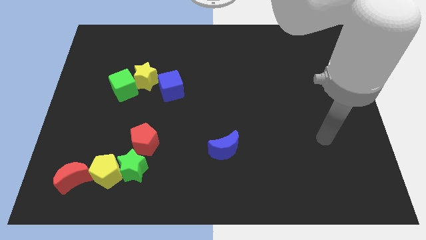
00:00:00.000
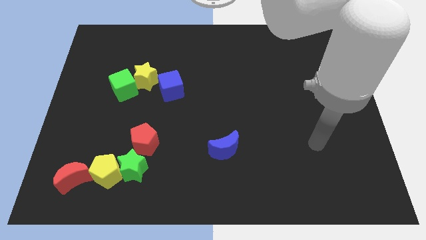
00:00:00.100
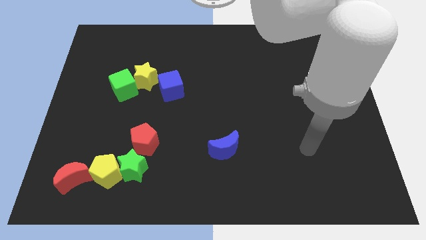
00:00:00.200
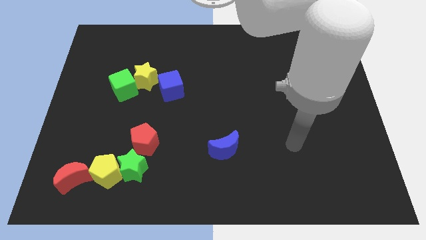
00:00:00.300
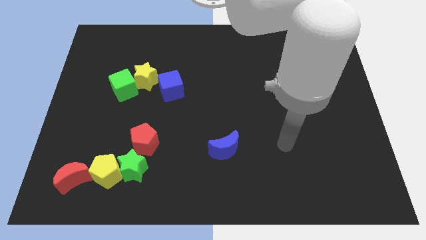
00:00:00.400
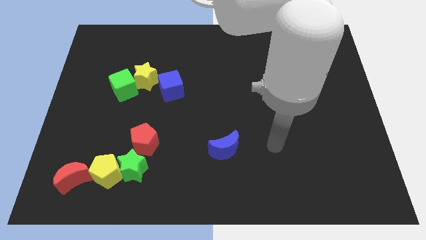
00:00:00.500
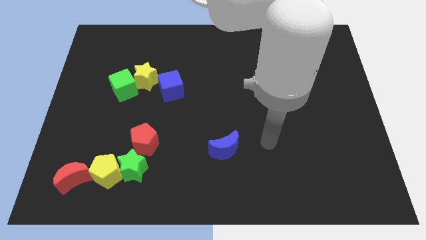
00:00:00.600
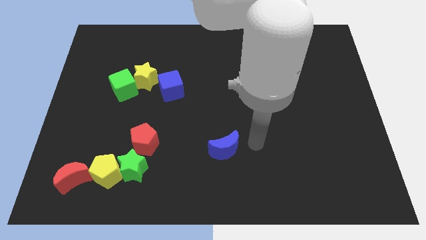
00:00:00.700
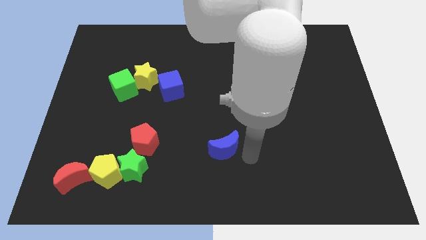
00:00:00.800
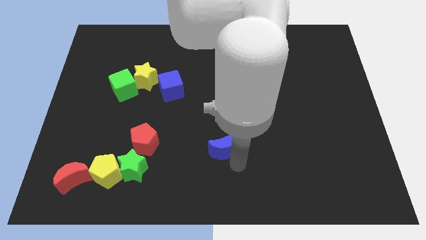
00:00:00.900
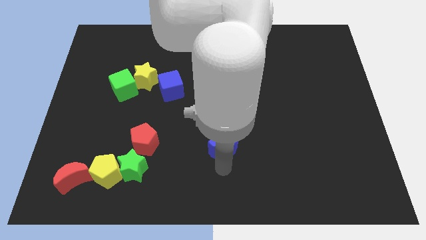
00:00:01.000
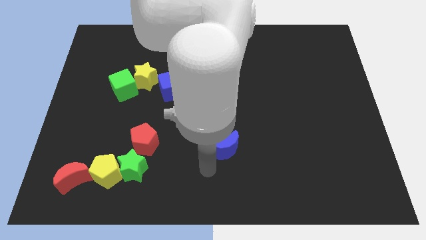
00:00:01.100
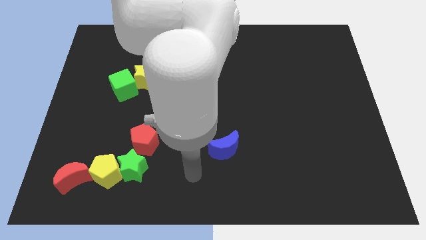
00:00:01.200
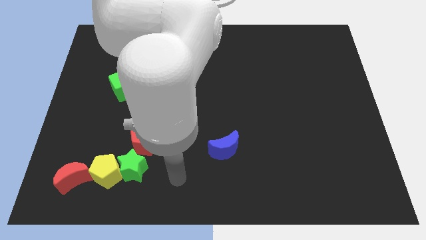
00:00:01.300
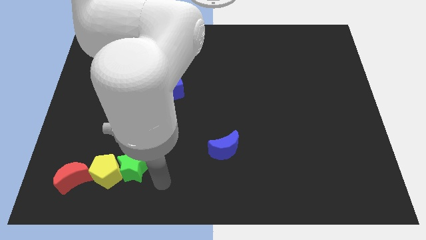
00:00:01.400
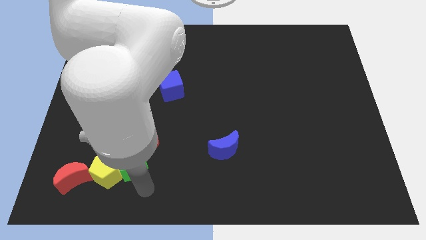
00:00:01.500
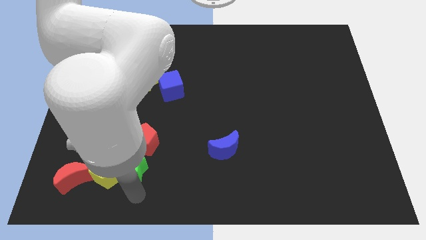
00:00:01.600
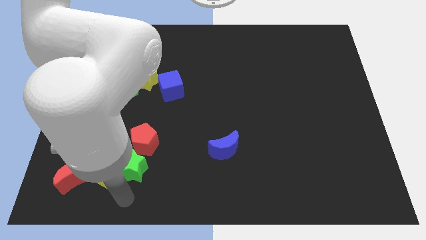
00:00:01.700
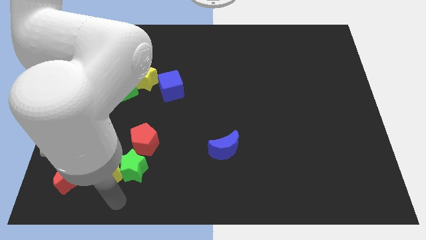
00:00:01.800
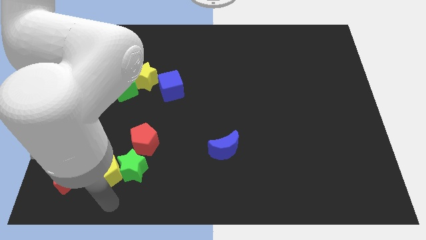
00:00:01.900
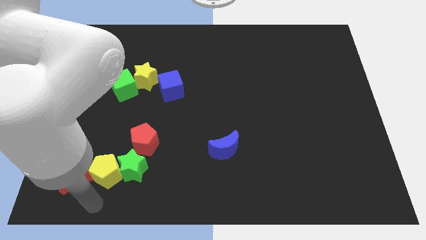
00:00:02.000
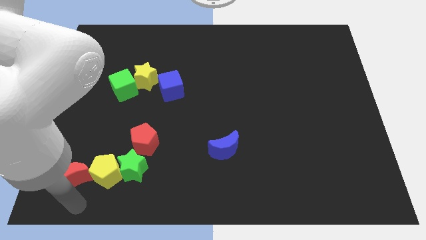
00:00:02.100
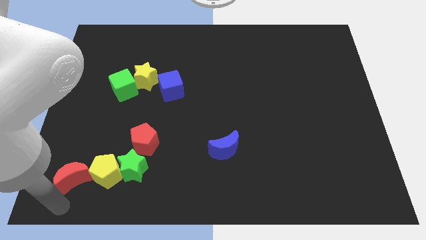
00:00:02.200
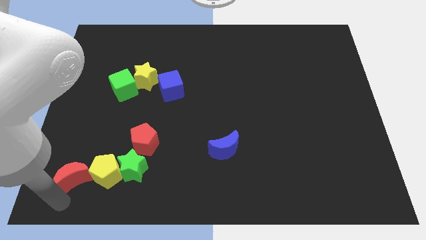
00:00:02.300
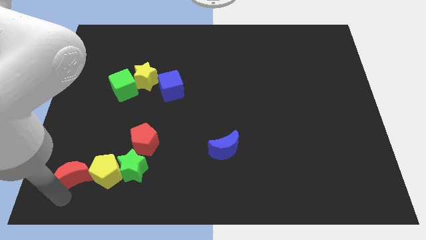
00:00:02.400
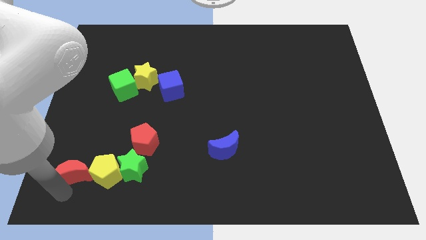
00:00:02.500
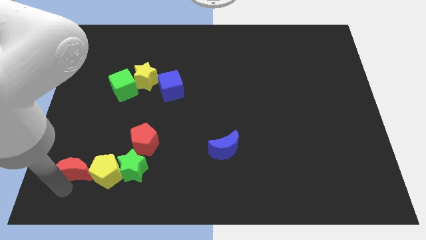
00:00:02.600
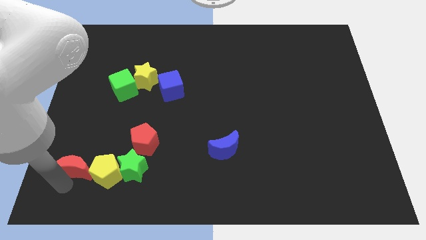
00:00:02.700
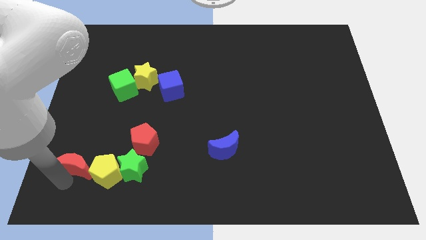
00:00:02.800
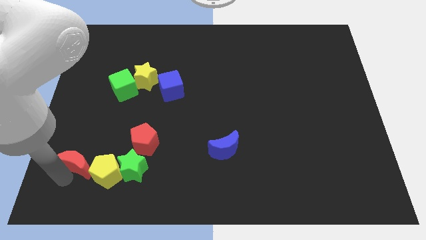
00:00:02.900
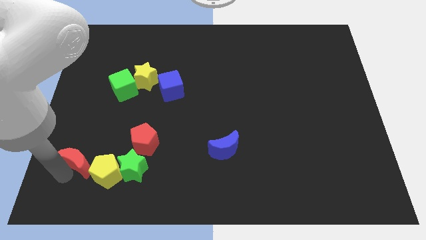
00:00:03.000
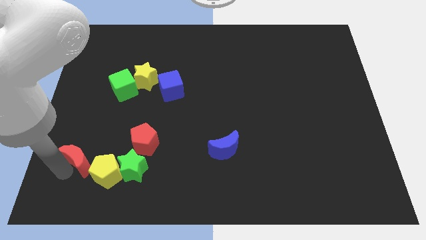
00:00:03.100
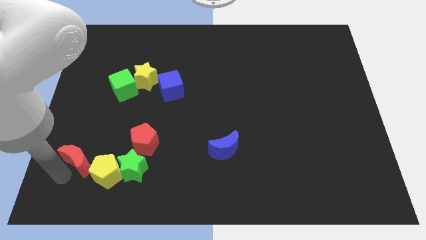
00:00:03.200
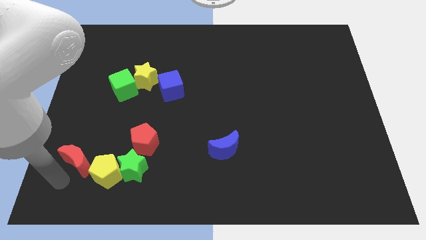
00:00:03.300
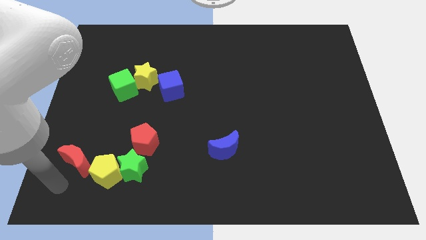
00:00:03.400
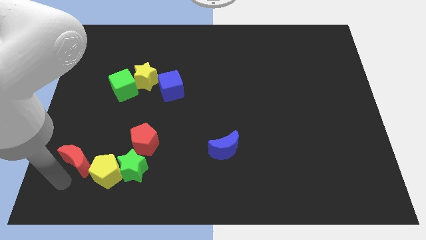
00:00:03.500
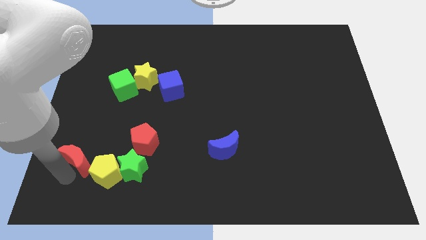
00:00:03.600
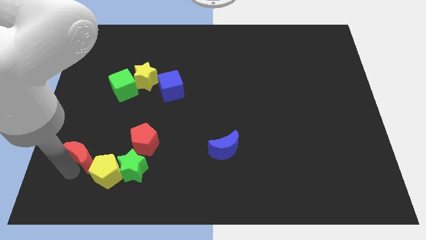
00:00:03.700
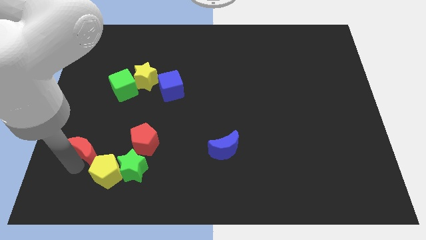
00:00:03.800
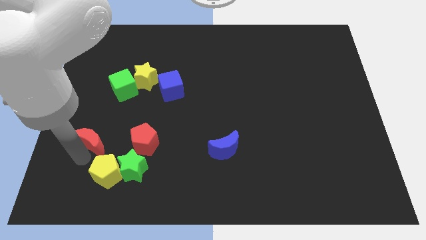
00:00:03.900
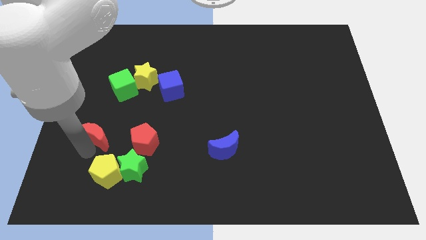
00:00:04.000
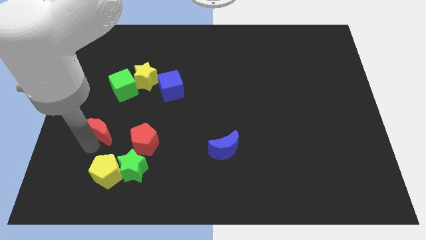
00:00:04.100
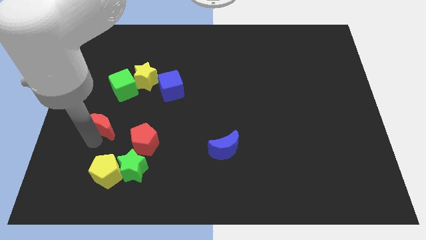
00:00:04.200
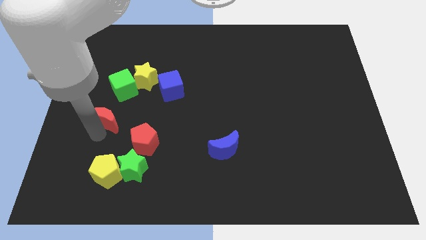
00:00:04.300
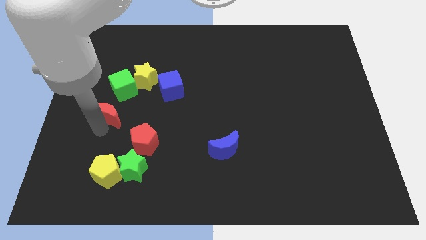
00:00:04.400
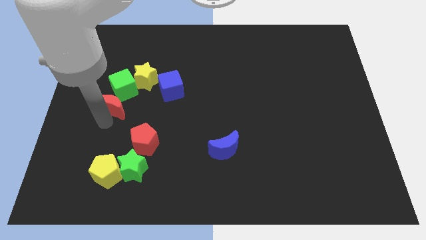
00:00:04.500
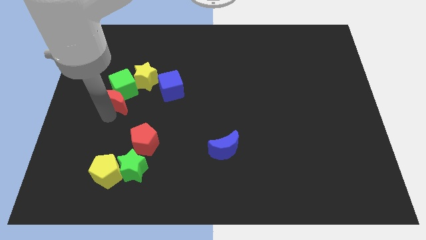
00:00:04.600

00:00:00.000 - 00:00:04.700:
put the red moon next to the green cube

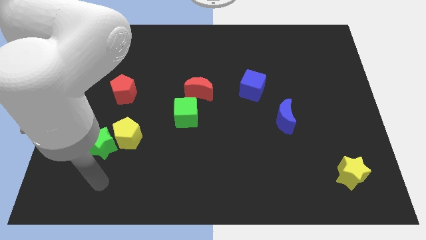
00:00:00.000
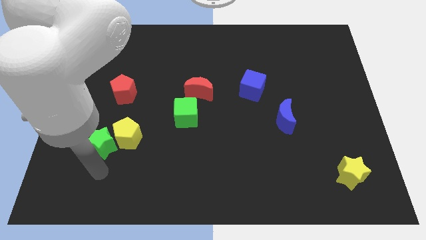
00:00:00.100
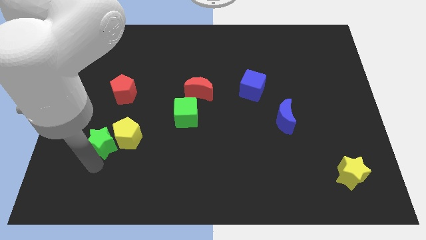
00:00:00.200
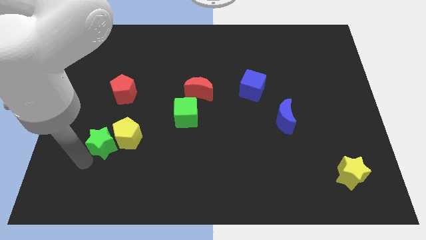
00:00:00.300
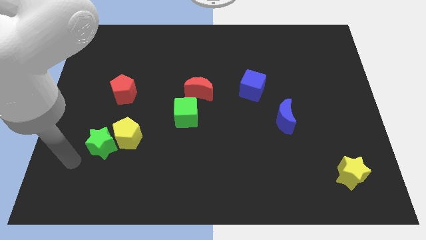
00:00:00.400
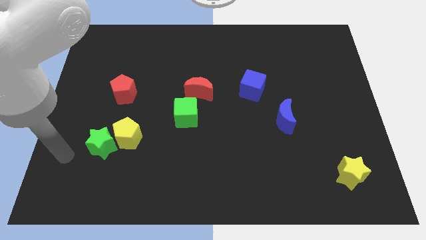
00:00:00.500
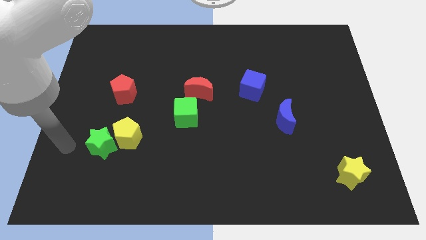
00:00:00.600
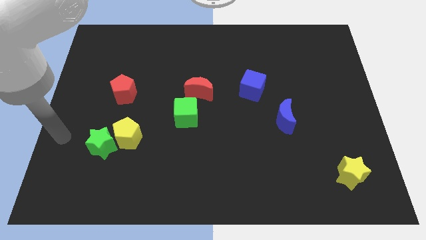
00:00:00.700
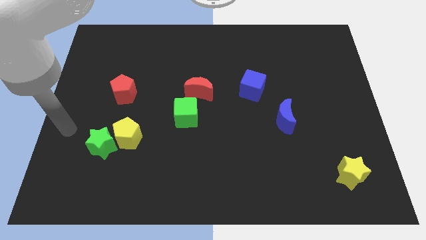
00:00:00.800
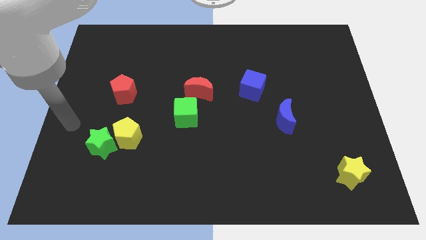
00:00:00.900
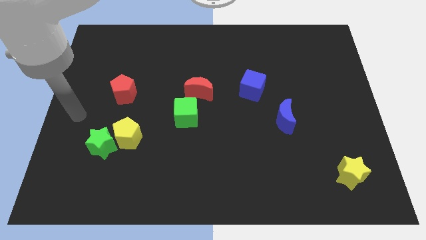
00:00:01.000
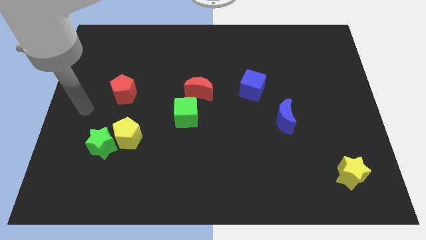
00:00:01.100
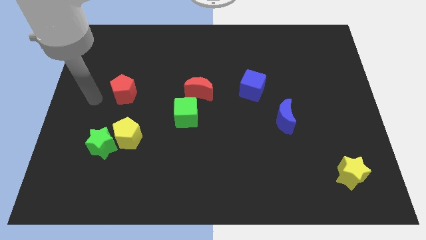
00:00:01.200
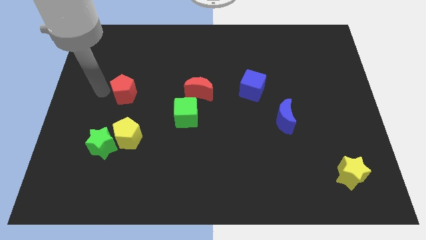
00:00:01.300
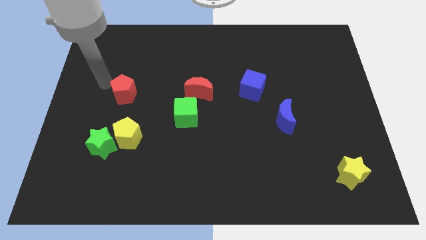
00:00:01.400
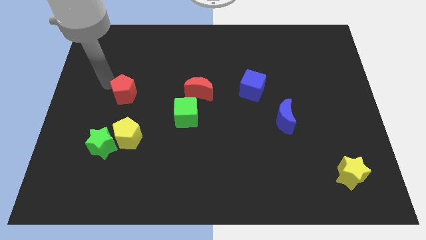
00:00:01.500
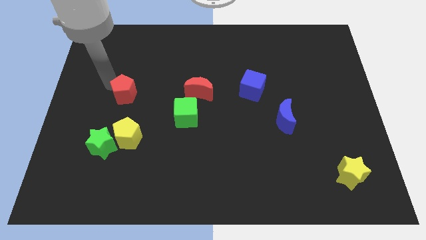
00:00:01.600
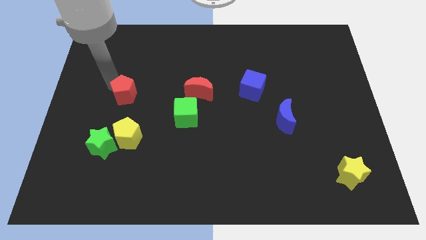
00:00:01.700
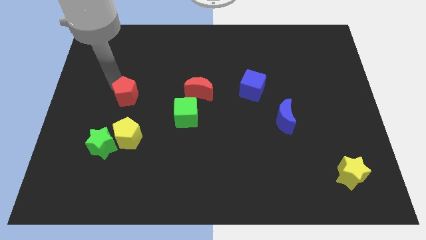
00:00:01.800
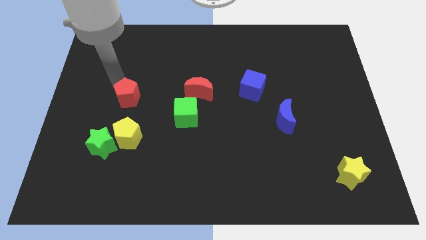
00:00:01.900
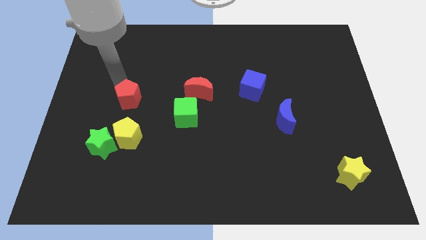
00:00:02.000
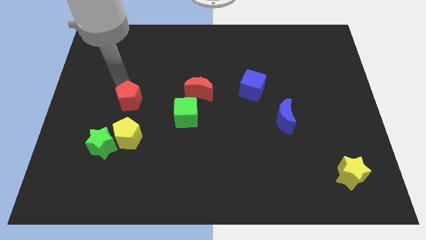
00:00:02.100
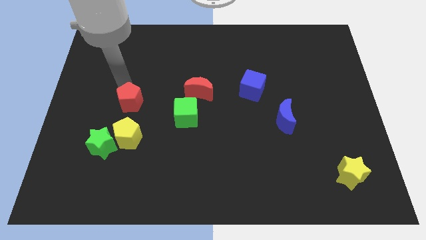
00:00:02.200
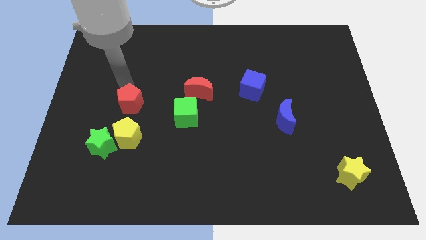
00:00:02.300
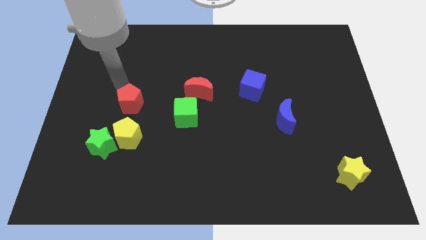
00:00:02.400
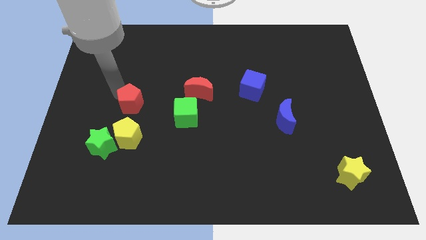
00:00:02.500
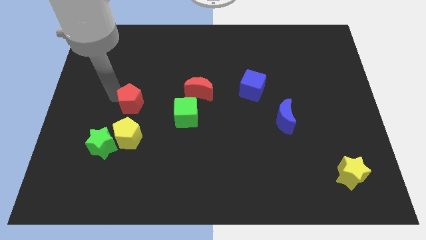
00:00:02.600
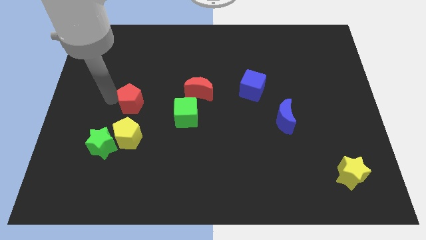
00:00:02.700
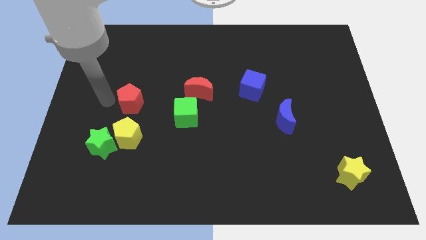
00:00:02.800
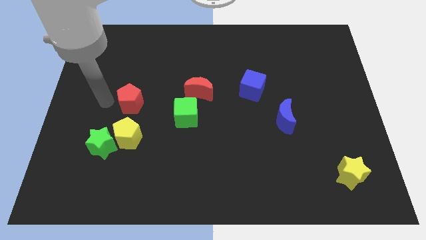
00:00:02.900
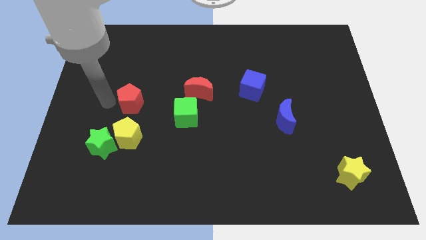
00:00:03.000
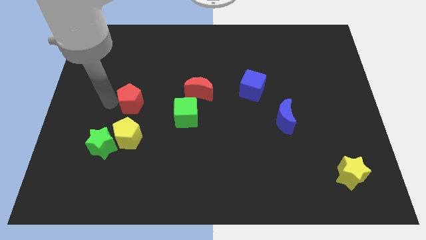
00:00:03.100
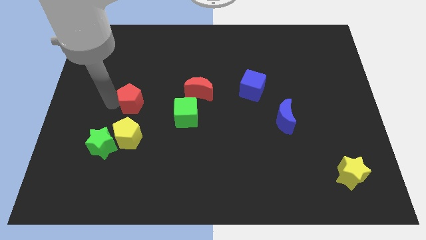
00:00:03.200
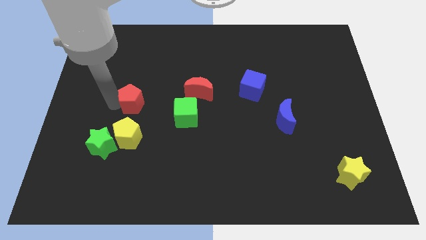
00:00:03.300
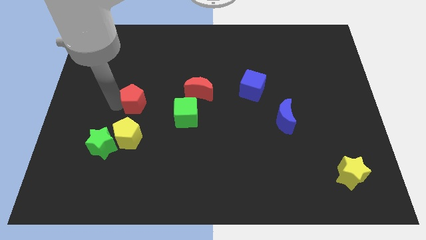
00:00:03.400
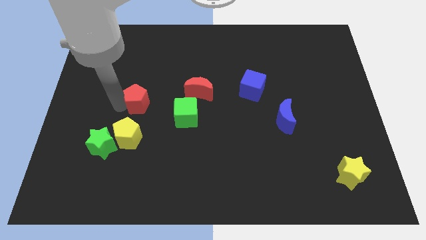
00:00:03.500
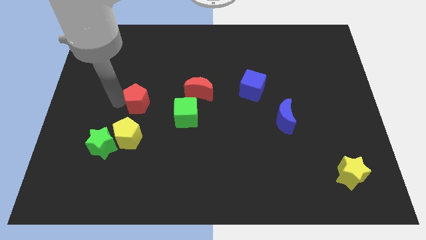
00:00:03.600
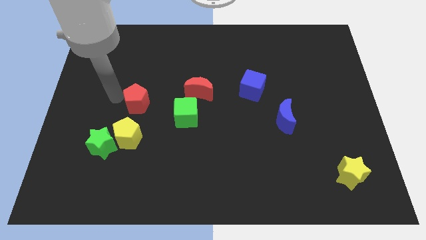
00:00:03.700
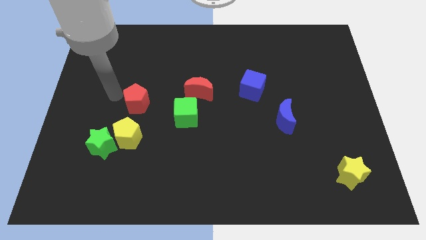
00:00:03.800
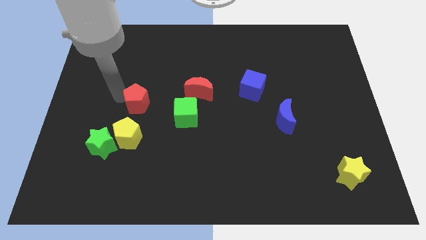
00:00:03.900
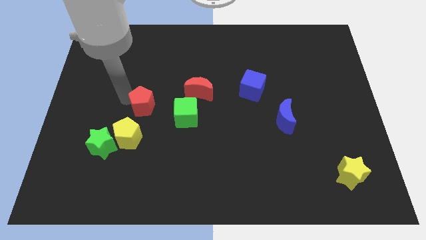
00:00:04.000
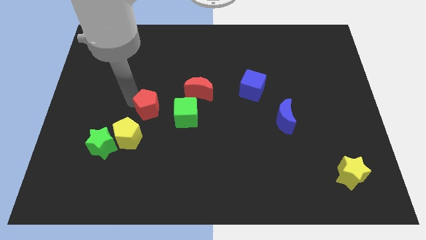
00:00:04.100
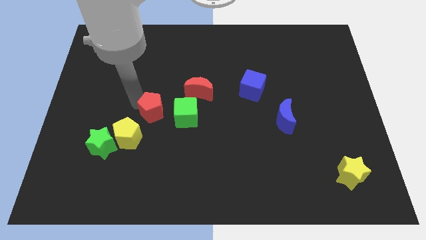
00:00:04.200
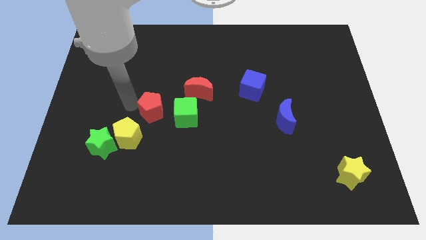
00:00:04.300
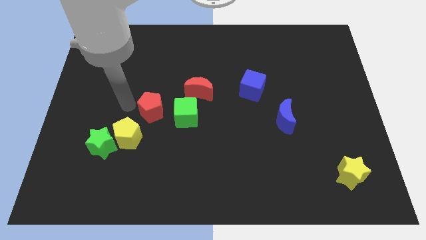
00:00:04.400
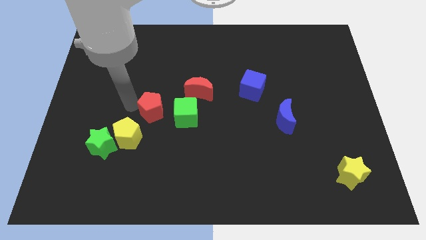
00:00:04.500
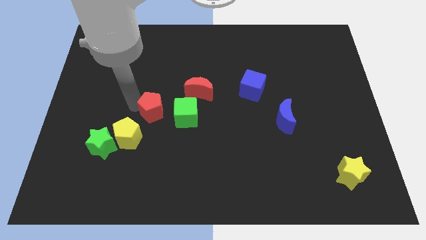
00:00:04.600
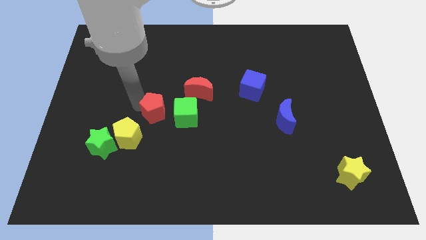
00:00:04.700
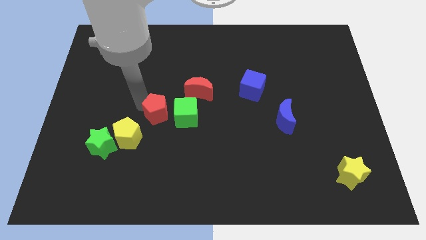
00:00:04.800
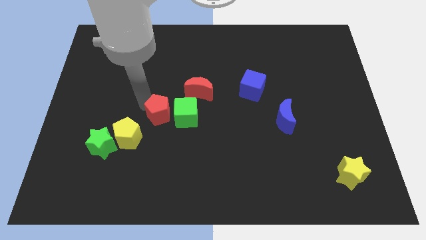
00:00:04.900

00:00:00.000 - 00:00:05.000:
slide the red pentagon towards the green cube
